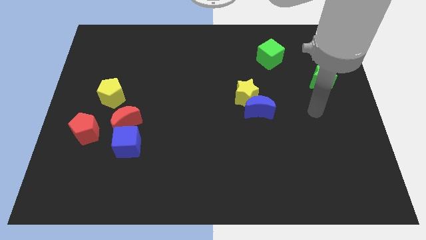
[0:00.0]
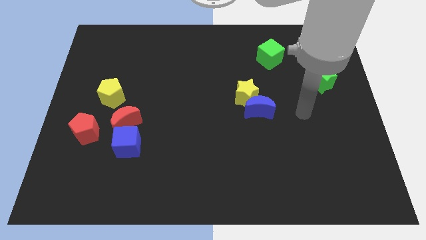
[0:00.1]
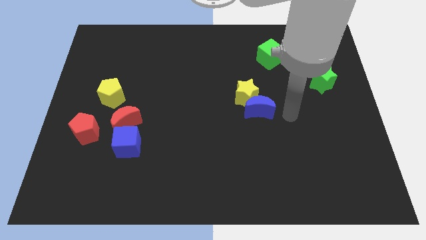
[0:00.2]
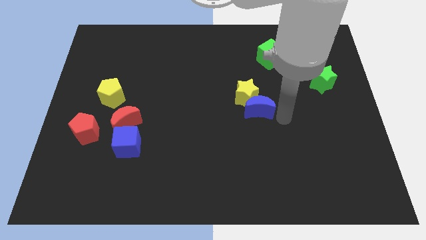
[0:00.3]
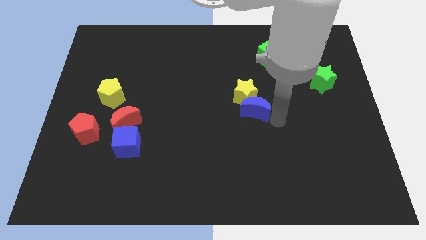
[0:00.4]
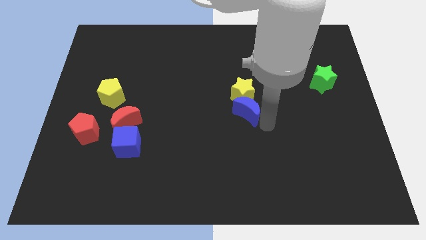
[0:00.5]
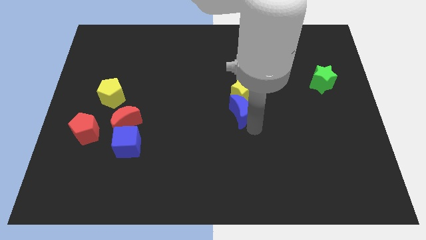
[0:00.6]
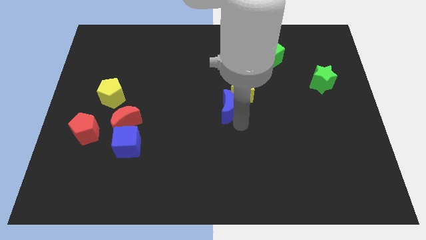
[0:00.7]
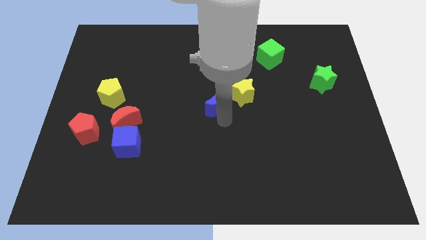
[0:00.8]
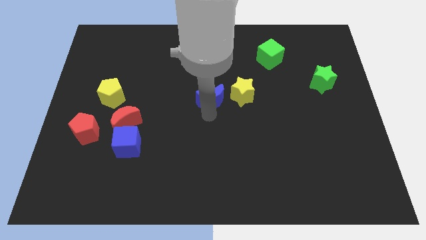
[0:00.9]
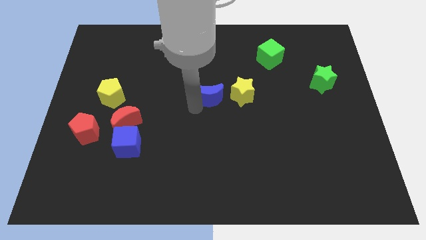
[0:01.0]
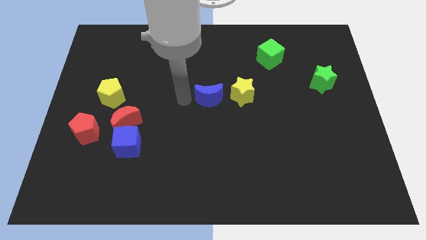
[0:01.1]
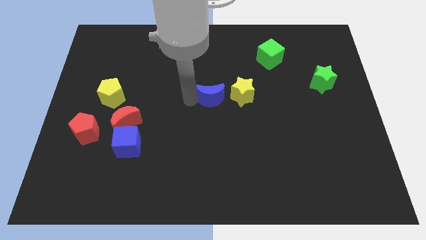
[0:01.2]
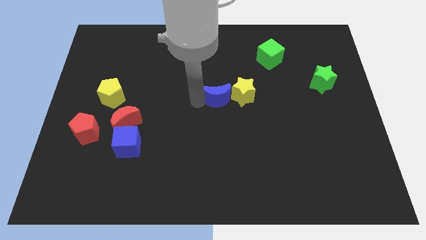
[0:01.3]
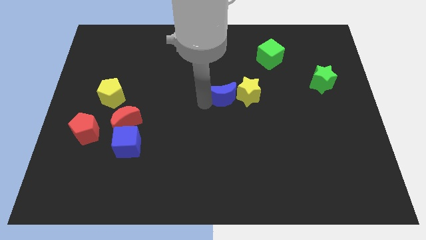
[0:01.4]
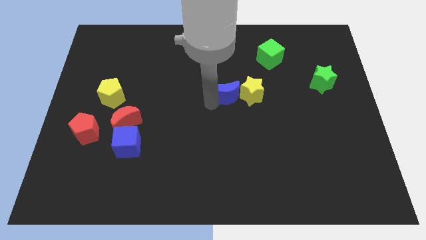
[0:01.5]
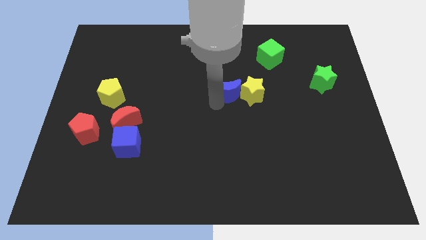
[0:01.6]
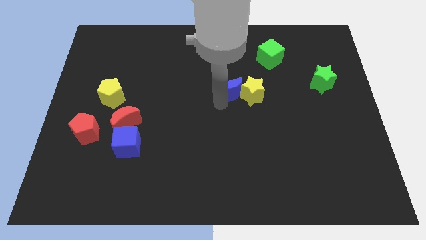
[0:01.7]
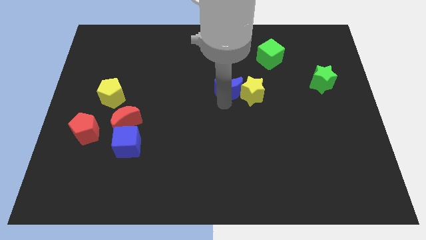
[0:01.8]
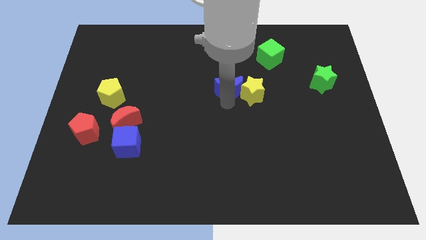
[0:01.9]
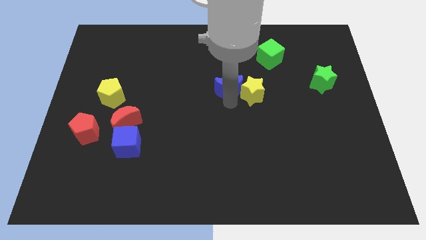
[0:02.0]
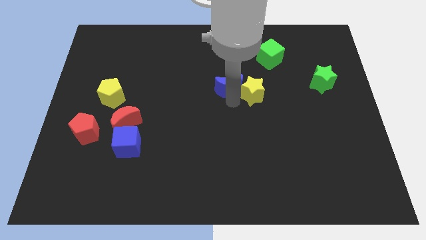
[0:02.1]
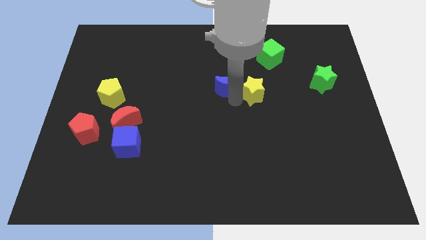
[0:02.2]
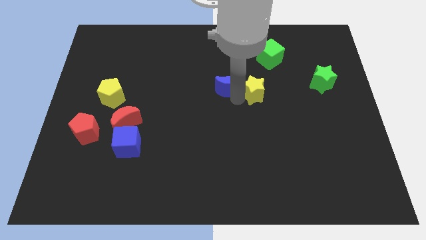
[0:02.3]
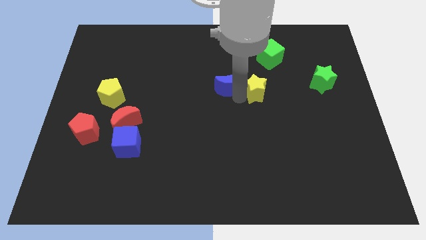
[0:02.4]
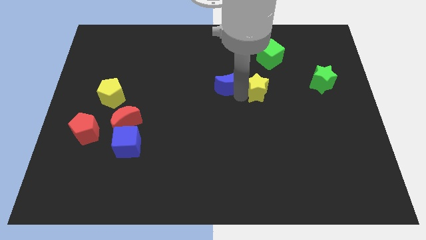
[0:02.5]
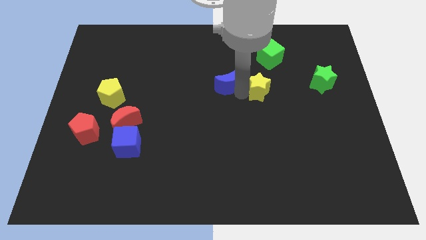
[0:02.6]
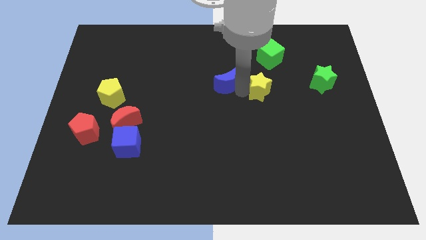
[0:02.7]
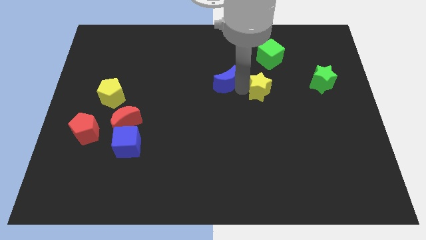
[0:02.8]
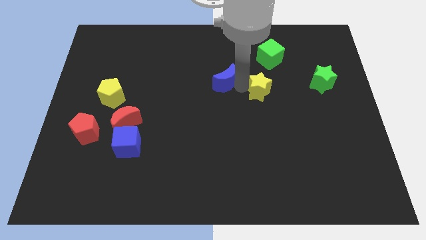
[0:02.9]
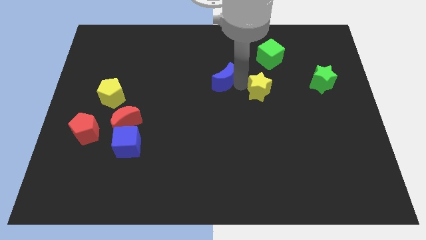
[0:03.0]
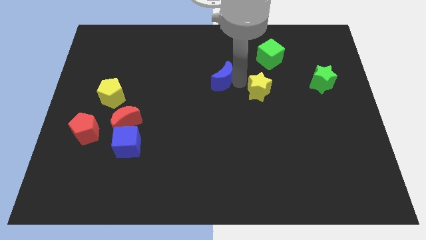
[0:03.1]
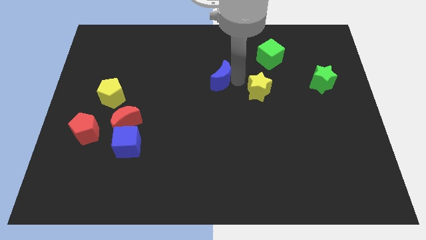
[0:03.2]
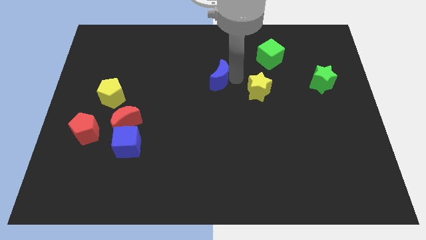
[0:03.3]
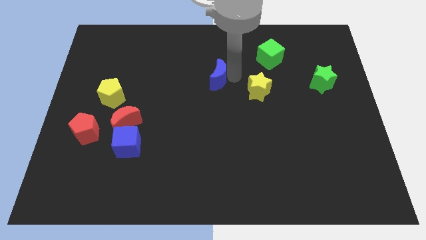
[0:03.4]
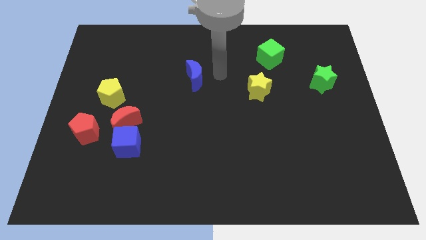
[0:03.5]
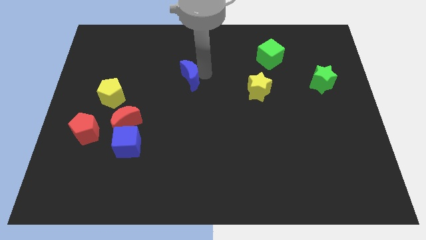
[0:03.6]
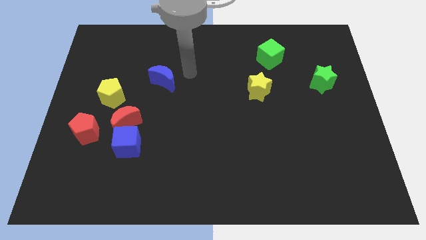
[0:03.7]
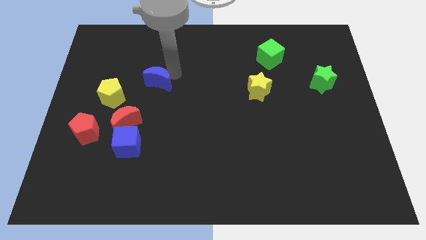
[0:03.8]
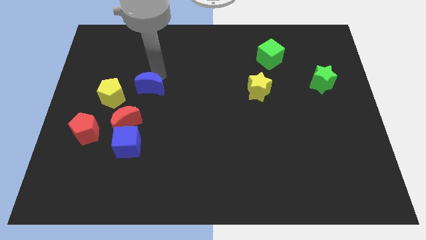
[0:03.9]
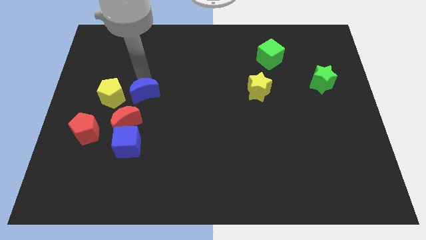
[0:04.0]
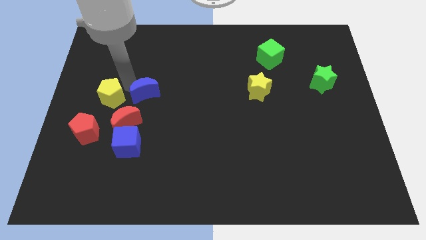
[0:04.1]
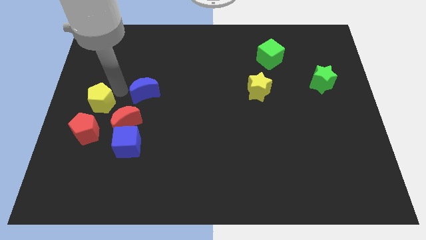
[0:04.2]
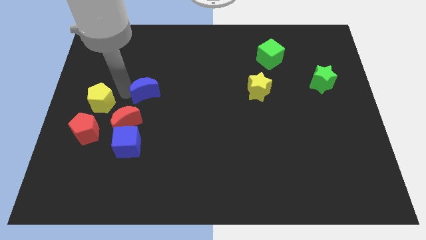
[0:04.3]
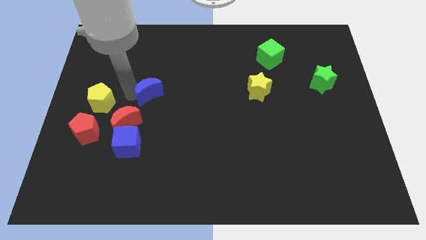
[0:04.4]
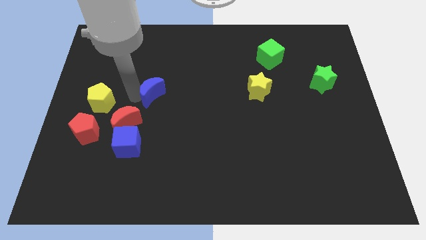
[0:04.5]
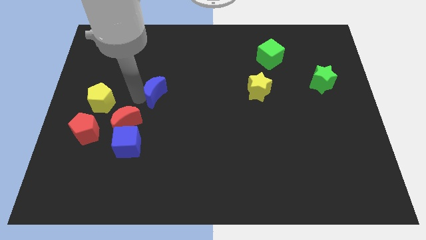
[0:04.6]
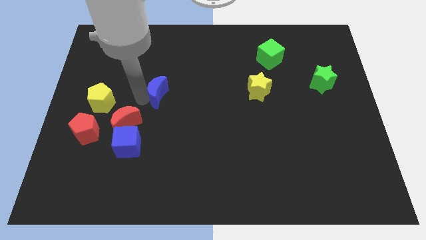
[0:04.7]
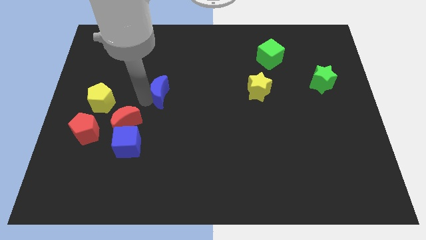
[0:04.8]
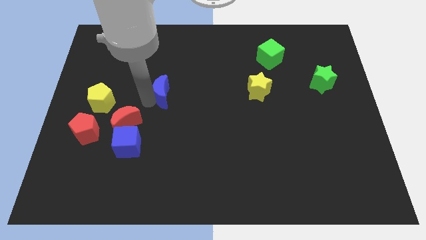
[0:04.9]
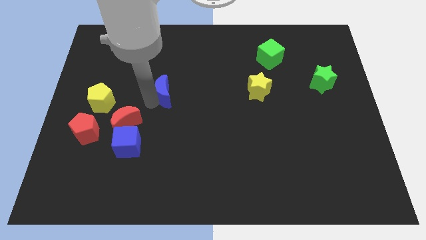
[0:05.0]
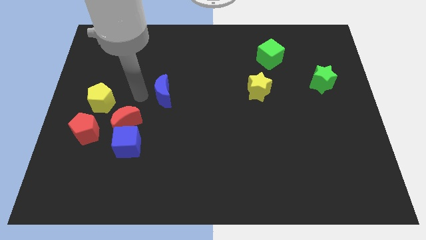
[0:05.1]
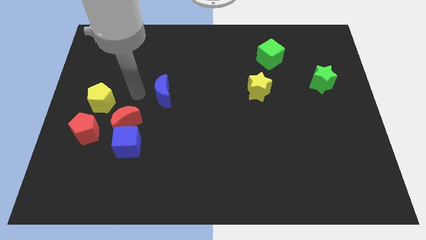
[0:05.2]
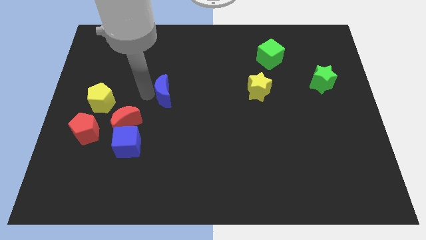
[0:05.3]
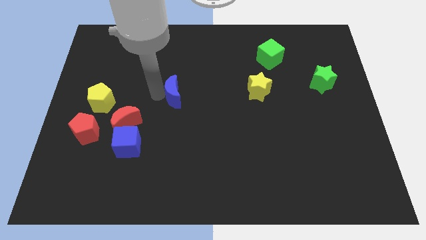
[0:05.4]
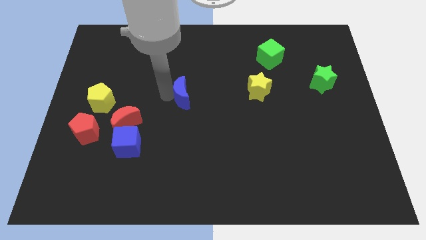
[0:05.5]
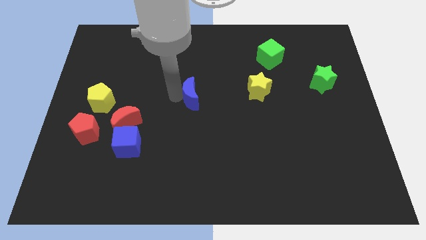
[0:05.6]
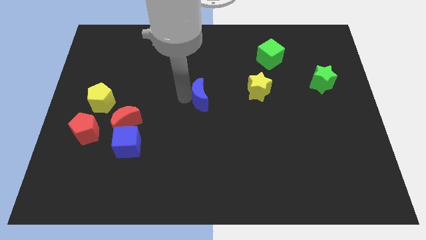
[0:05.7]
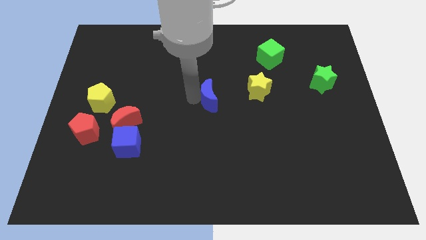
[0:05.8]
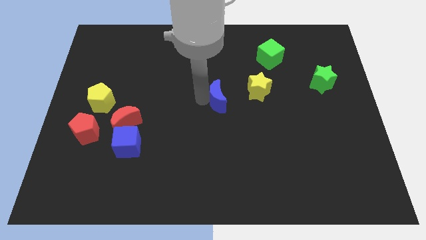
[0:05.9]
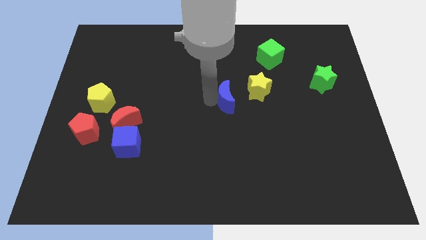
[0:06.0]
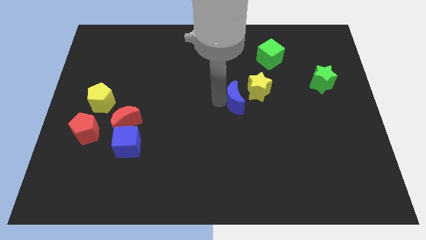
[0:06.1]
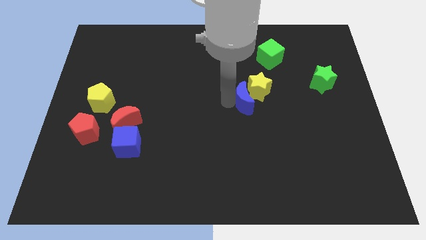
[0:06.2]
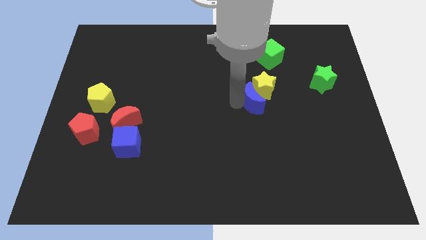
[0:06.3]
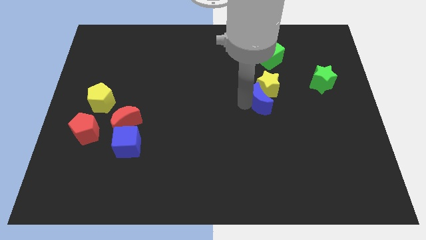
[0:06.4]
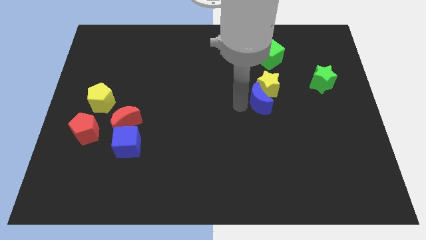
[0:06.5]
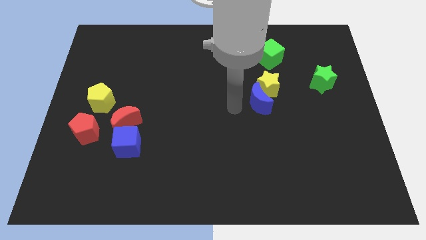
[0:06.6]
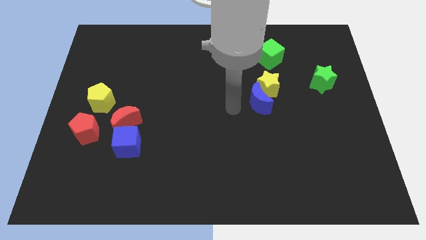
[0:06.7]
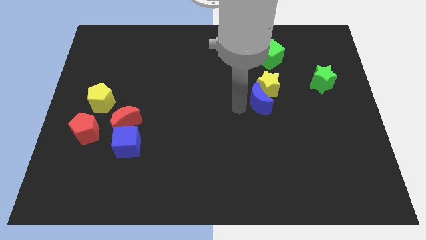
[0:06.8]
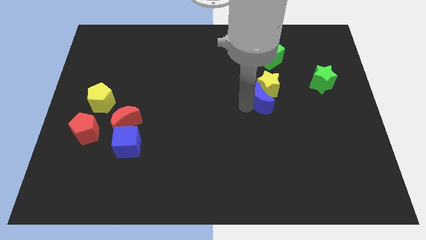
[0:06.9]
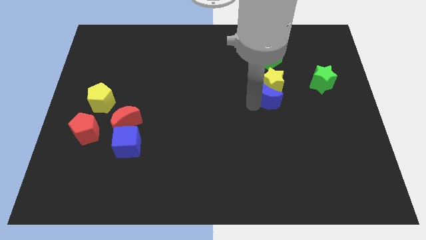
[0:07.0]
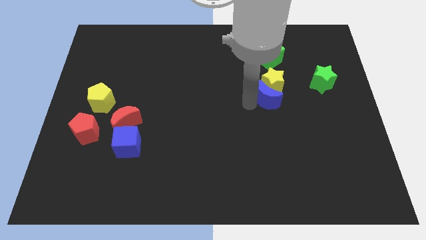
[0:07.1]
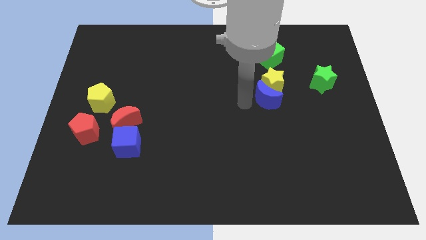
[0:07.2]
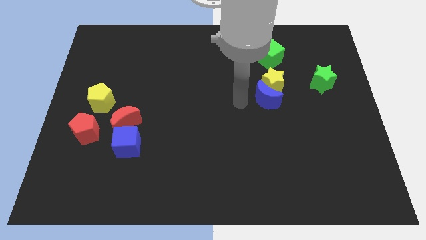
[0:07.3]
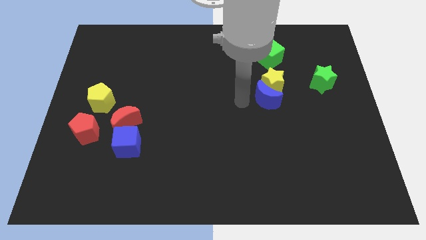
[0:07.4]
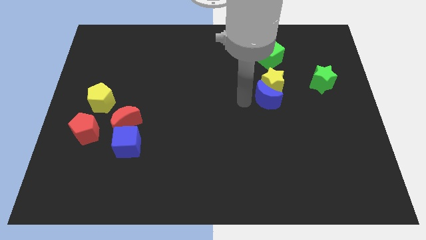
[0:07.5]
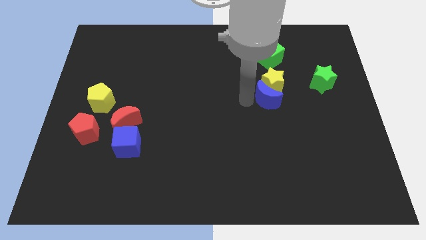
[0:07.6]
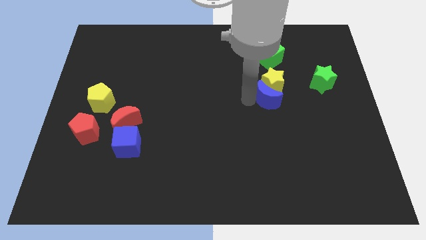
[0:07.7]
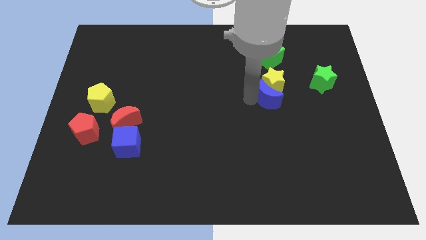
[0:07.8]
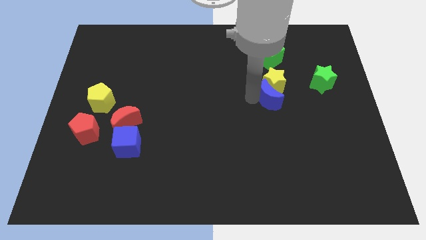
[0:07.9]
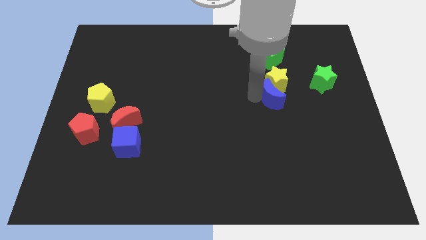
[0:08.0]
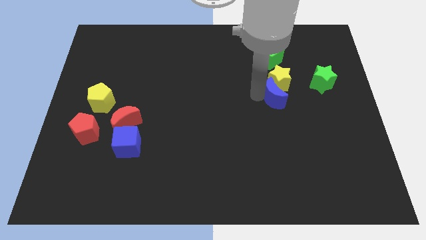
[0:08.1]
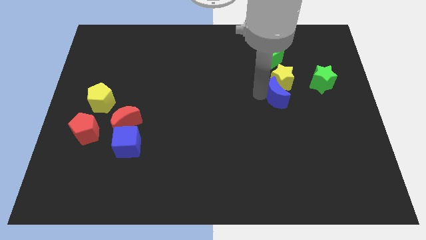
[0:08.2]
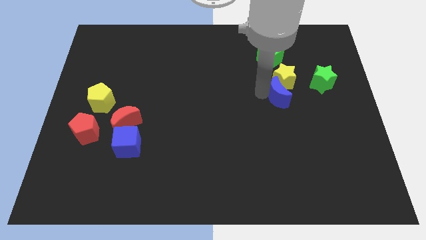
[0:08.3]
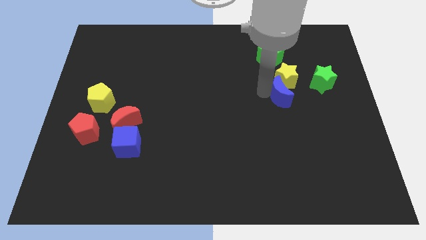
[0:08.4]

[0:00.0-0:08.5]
push the blue moon somewhat up and to the right diagonally
